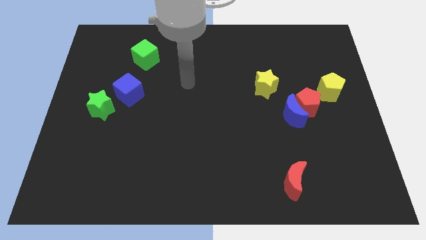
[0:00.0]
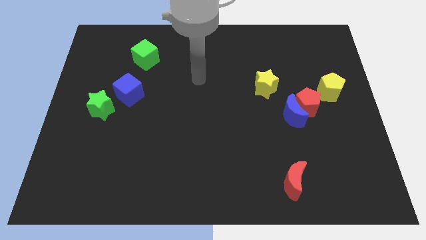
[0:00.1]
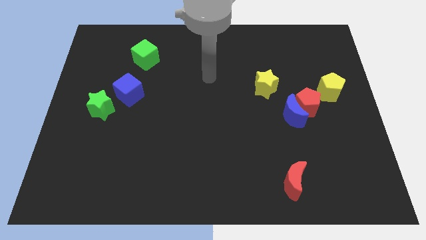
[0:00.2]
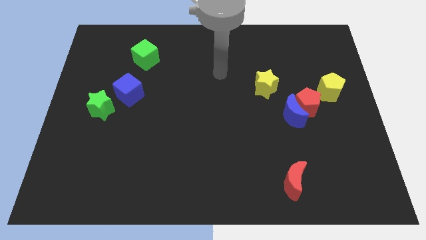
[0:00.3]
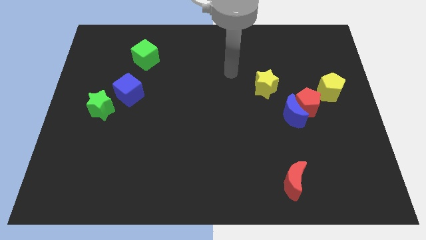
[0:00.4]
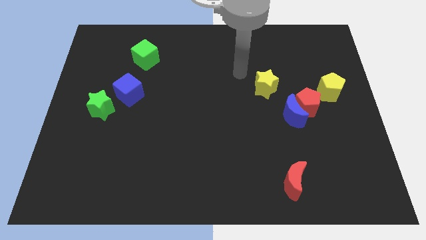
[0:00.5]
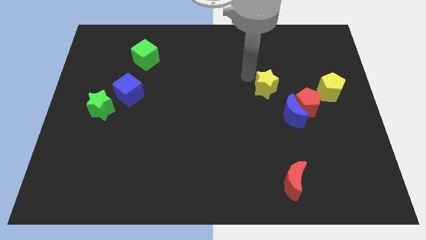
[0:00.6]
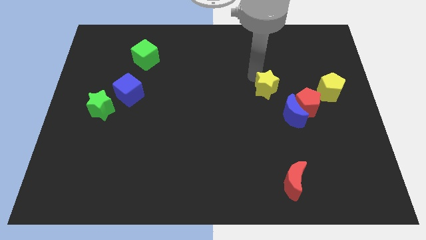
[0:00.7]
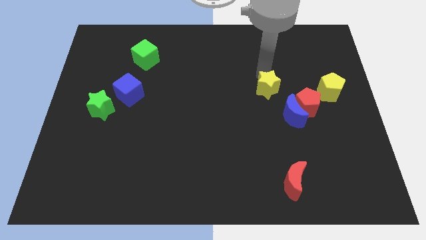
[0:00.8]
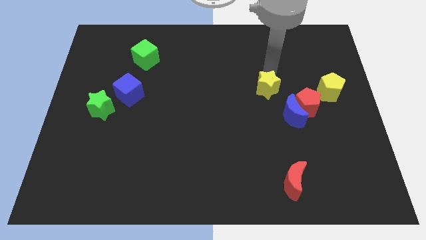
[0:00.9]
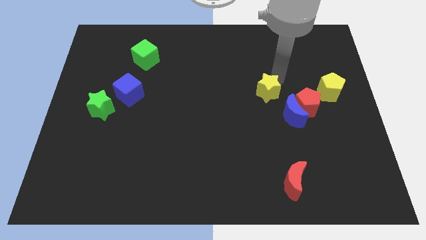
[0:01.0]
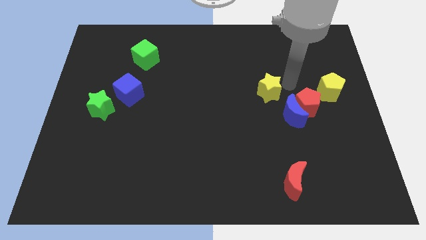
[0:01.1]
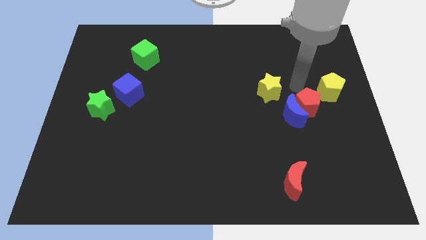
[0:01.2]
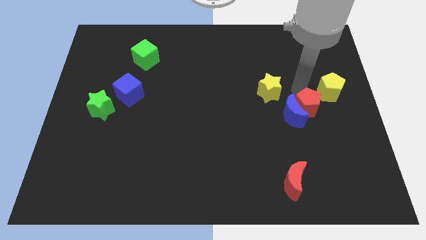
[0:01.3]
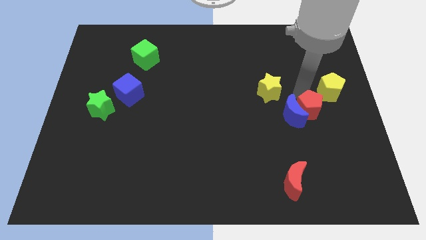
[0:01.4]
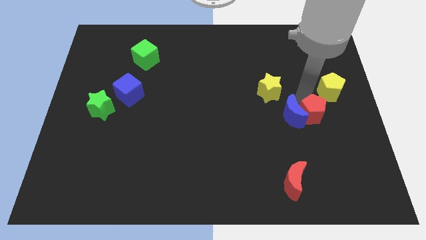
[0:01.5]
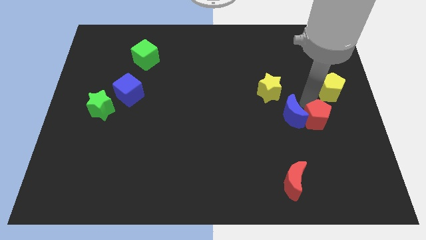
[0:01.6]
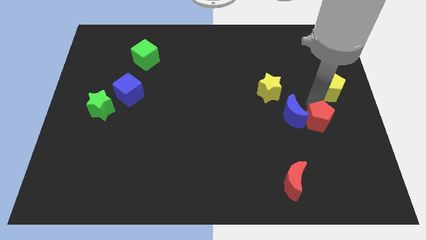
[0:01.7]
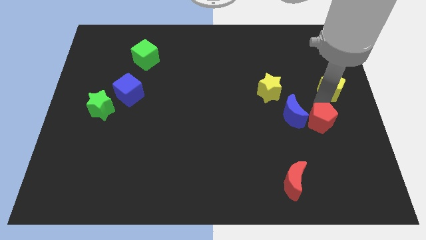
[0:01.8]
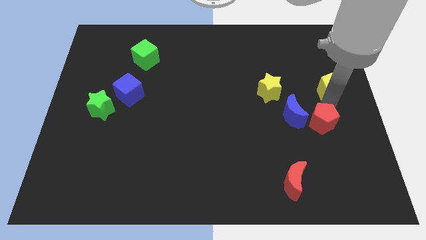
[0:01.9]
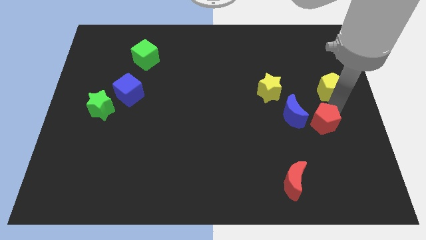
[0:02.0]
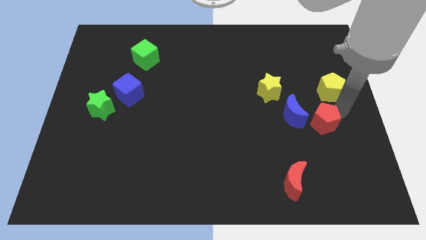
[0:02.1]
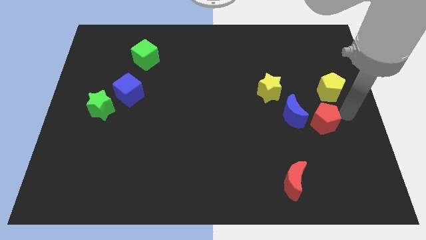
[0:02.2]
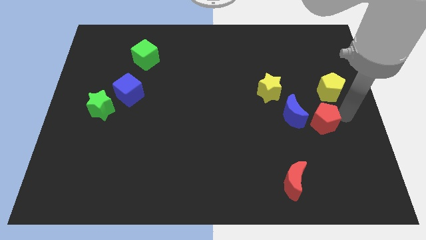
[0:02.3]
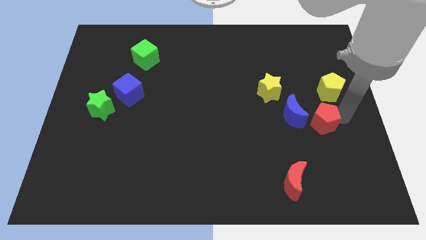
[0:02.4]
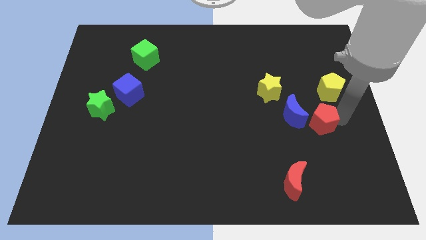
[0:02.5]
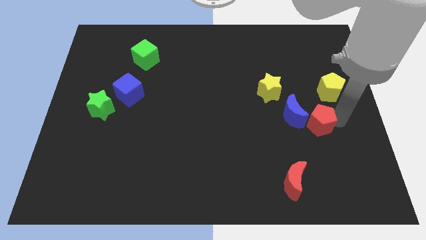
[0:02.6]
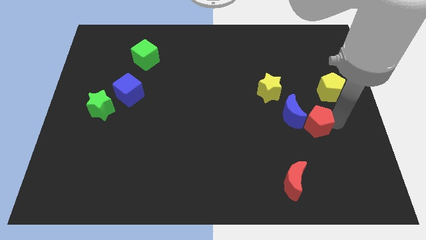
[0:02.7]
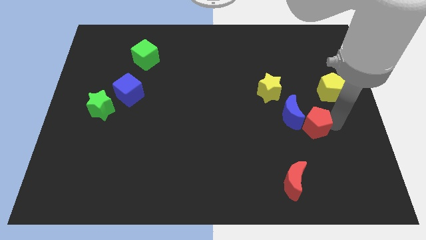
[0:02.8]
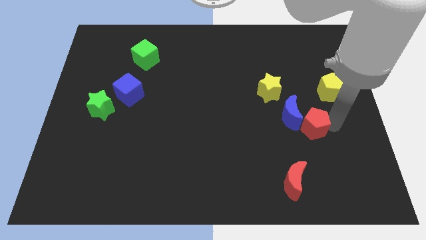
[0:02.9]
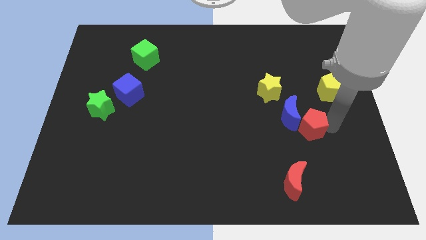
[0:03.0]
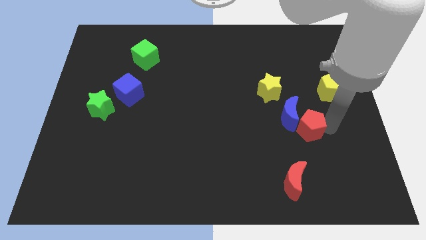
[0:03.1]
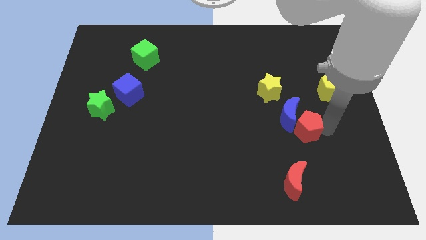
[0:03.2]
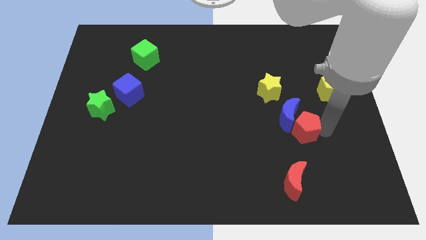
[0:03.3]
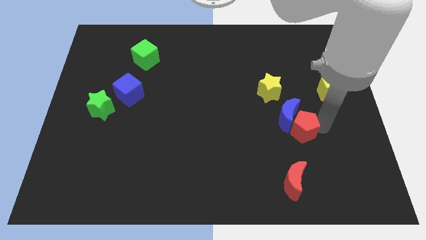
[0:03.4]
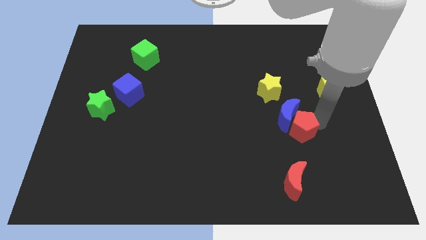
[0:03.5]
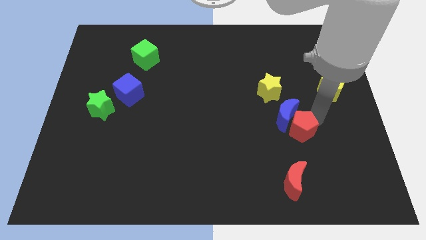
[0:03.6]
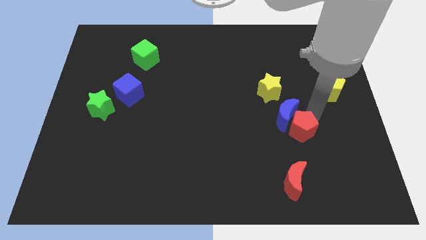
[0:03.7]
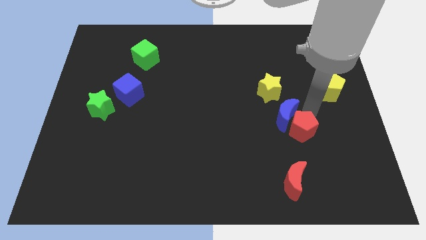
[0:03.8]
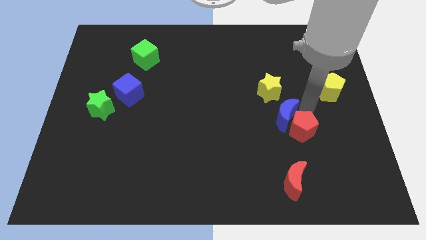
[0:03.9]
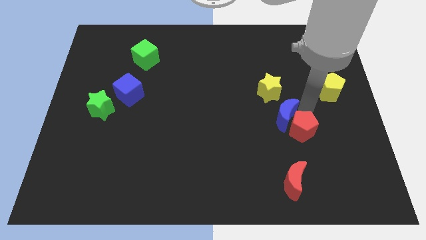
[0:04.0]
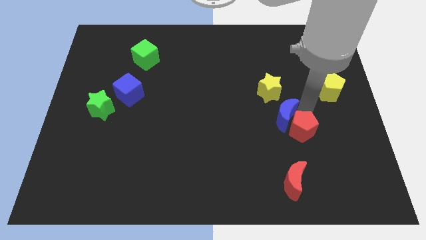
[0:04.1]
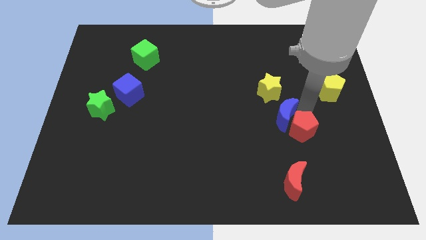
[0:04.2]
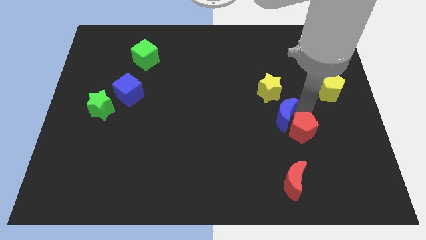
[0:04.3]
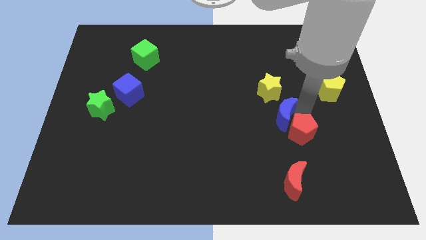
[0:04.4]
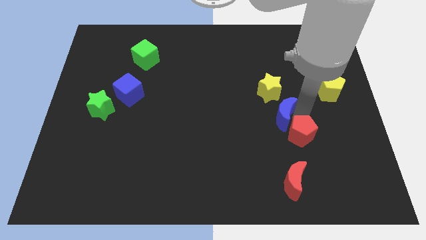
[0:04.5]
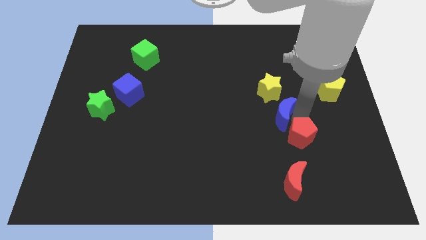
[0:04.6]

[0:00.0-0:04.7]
pull the red pentagon apart from the blue moon and yellow pentagon

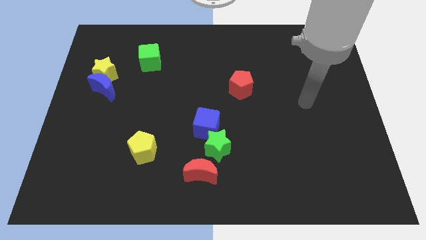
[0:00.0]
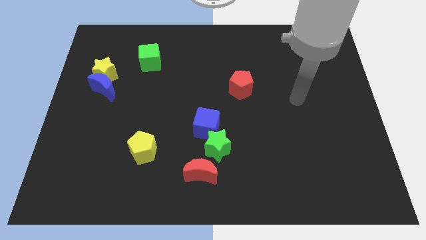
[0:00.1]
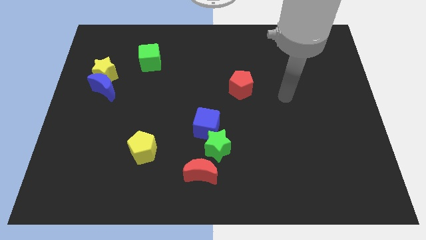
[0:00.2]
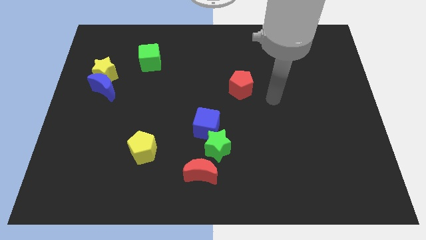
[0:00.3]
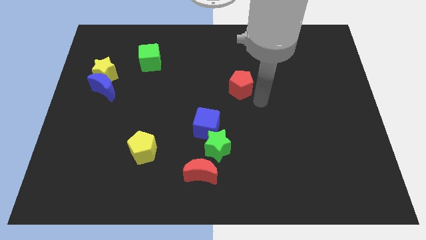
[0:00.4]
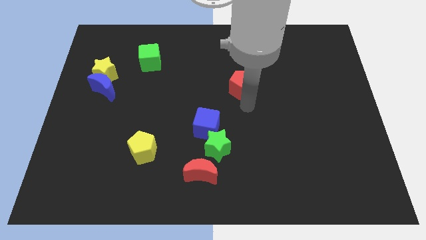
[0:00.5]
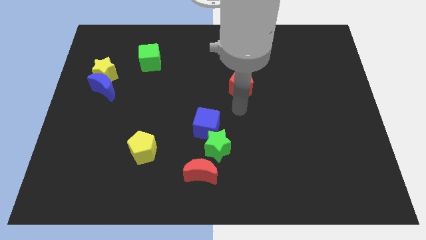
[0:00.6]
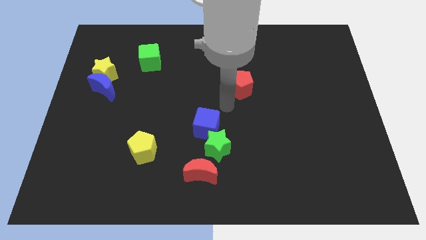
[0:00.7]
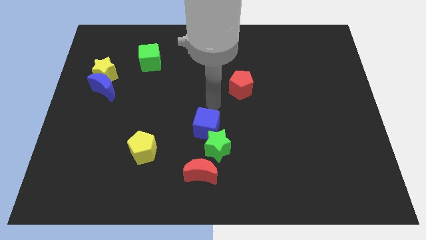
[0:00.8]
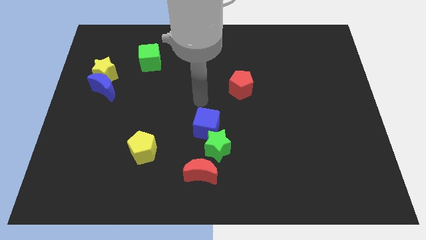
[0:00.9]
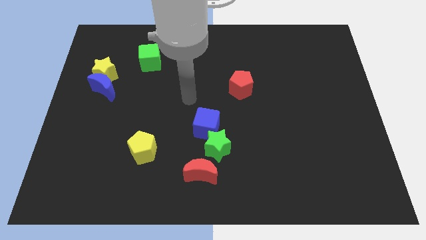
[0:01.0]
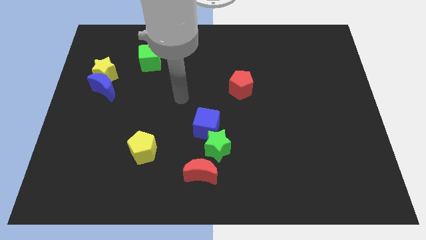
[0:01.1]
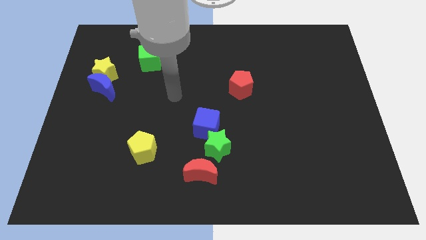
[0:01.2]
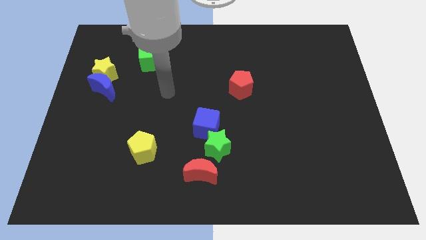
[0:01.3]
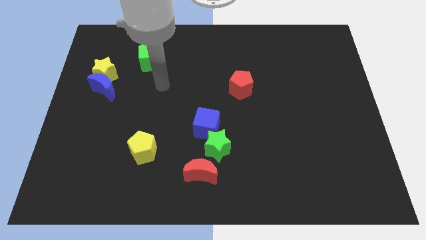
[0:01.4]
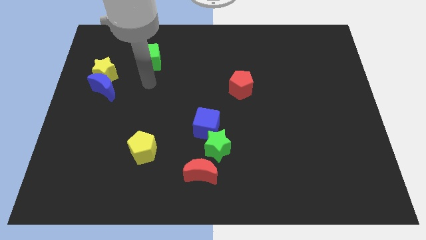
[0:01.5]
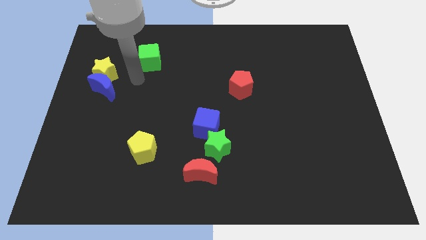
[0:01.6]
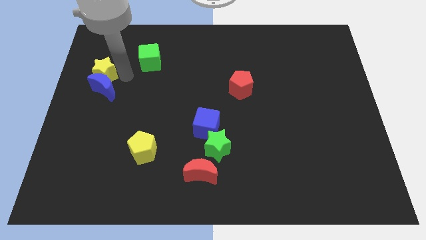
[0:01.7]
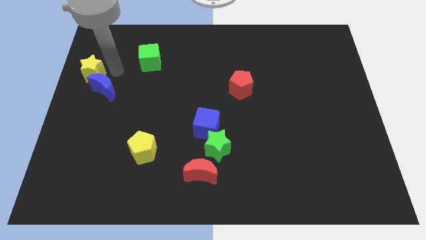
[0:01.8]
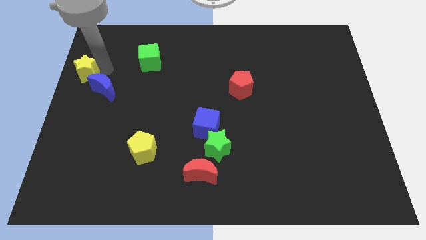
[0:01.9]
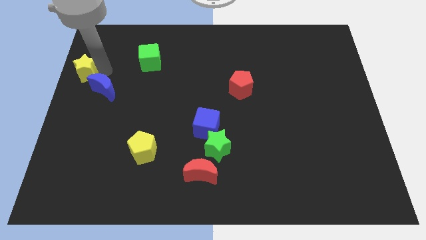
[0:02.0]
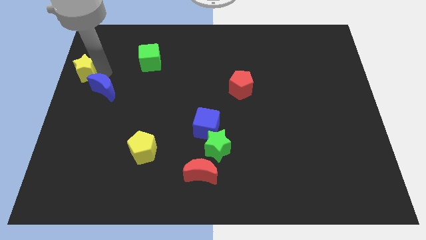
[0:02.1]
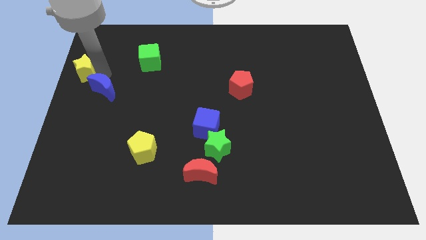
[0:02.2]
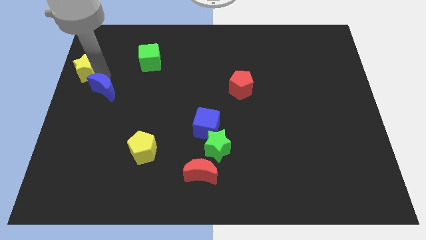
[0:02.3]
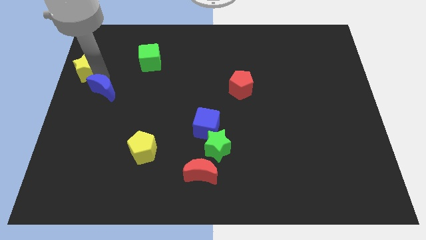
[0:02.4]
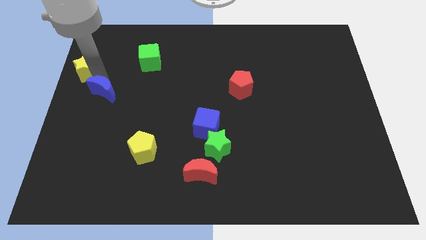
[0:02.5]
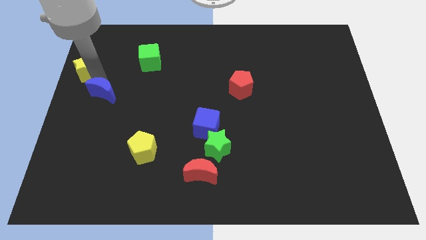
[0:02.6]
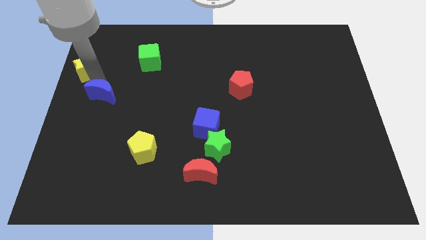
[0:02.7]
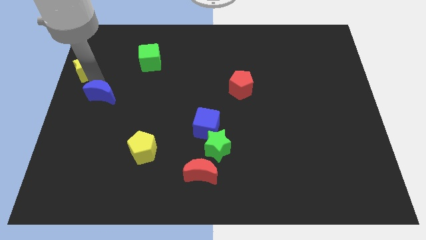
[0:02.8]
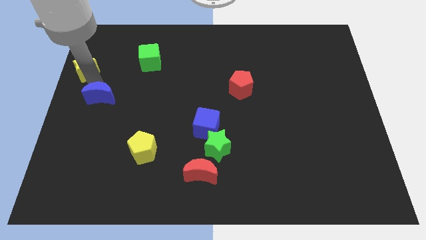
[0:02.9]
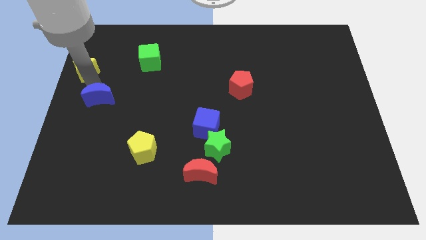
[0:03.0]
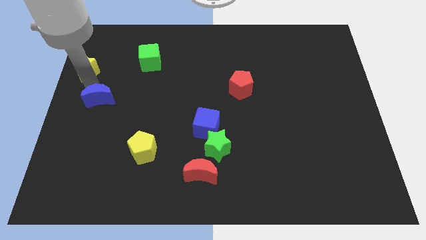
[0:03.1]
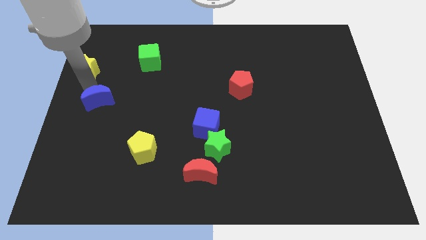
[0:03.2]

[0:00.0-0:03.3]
pull the blue moon apart from the yellow star

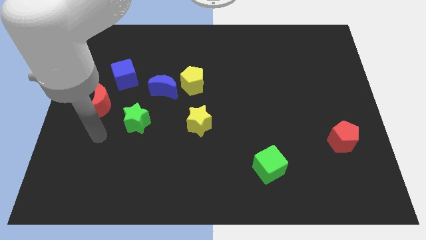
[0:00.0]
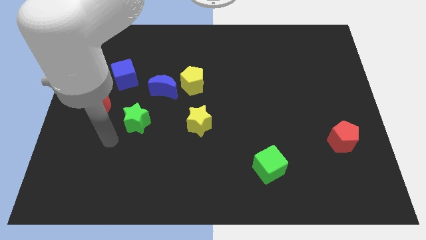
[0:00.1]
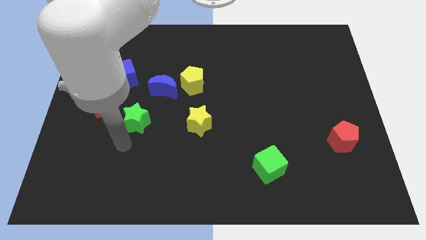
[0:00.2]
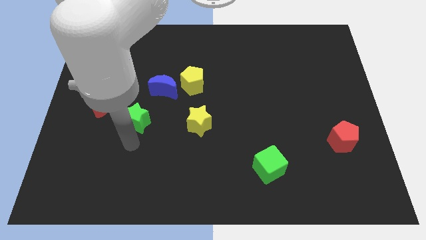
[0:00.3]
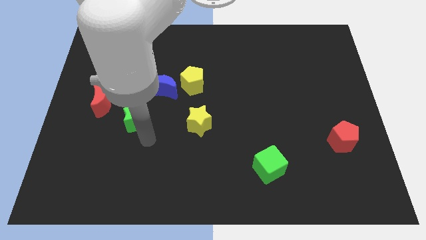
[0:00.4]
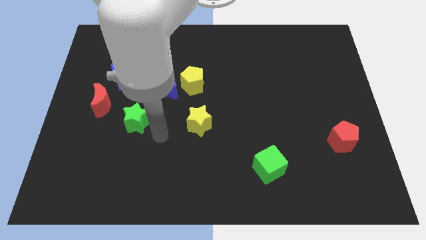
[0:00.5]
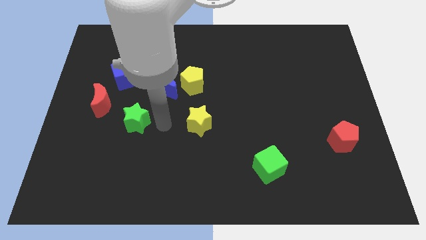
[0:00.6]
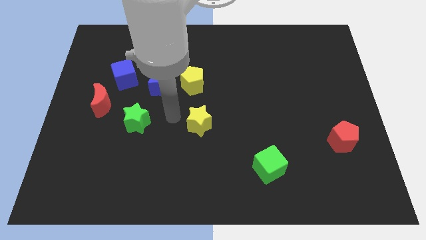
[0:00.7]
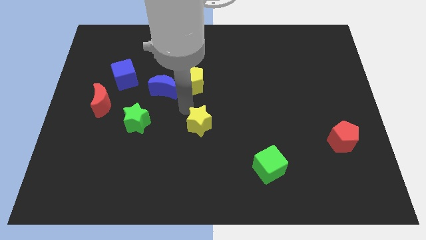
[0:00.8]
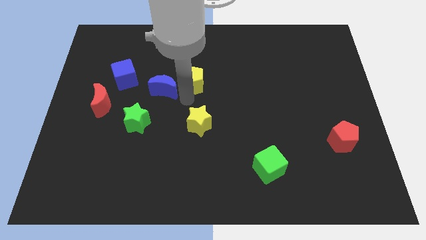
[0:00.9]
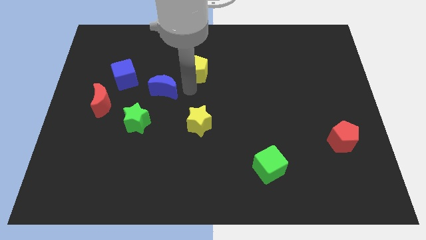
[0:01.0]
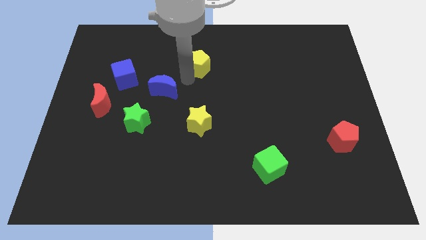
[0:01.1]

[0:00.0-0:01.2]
pull the blue moon apart from the yellow pentagon

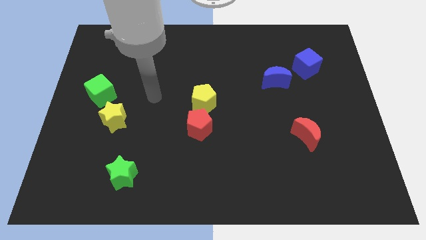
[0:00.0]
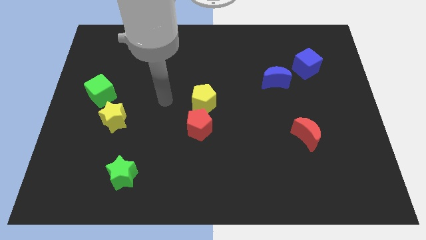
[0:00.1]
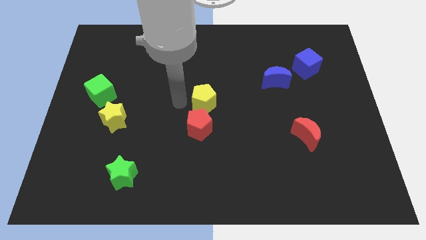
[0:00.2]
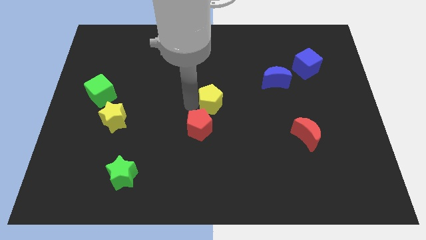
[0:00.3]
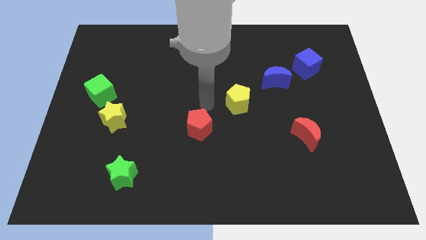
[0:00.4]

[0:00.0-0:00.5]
move the red pentagon away from the yellow pentagon
